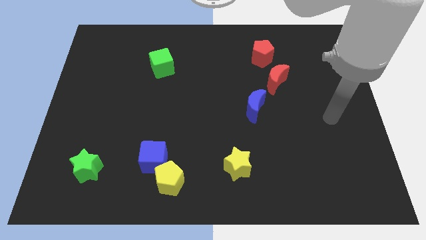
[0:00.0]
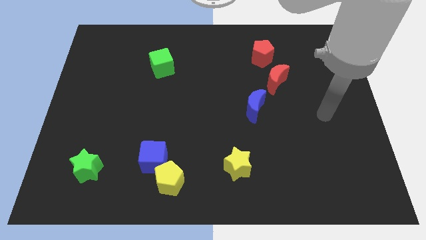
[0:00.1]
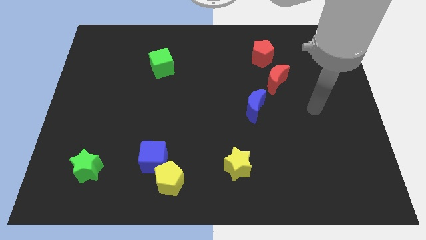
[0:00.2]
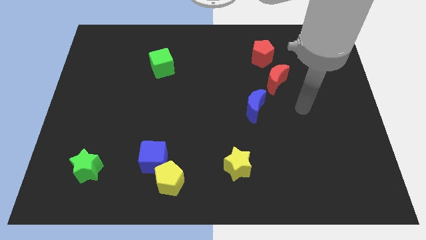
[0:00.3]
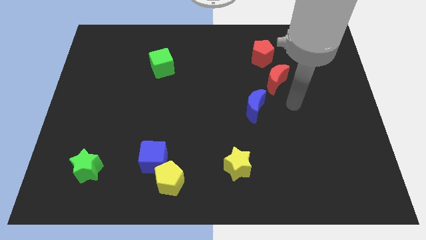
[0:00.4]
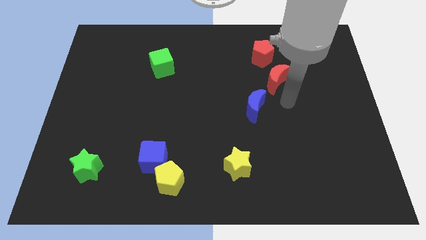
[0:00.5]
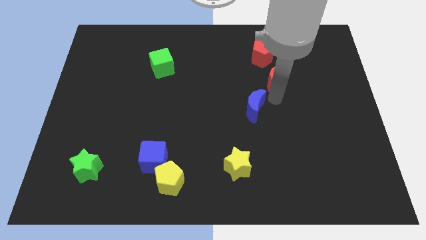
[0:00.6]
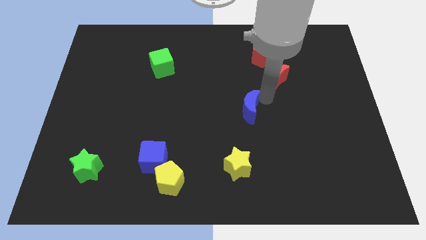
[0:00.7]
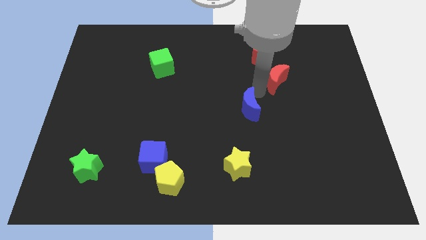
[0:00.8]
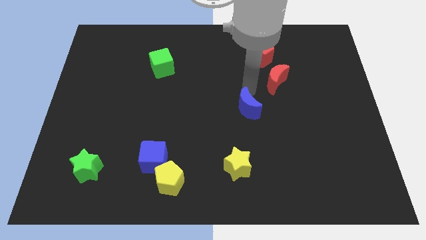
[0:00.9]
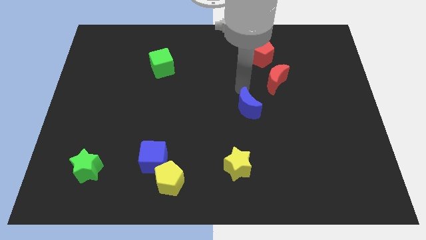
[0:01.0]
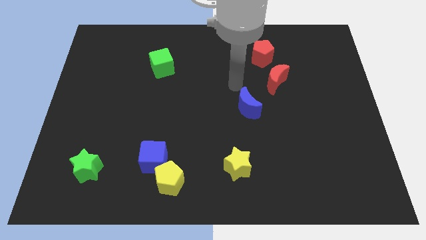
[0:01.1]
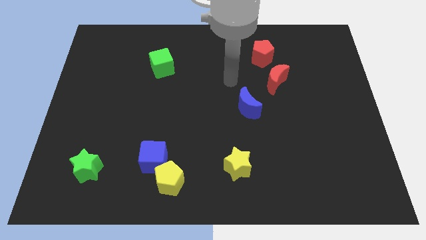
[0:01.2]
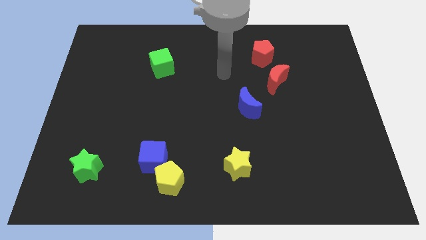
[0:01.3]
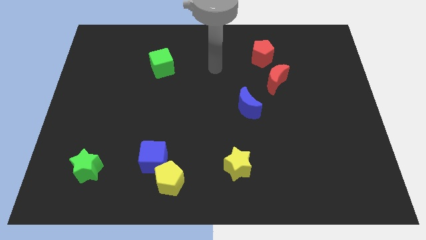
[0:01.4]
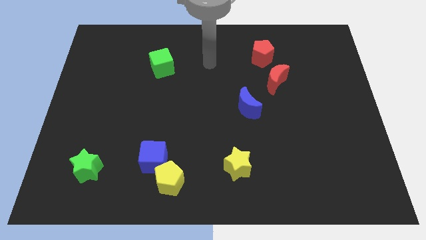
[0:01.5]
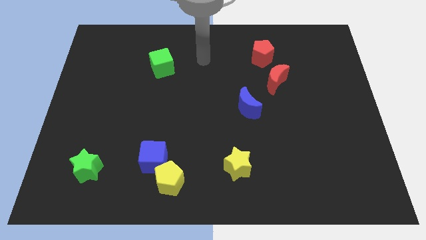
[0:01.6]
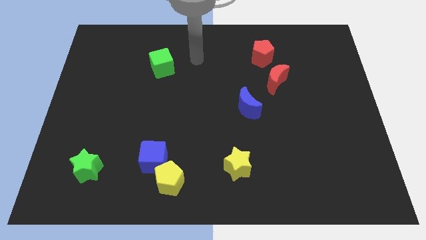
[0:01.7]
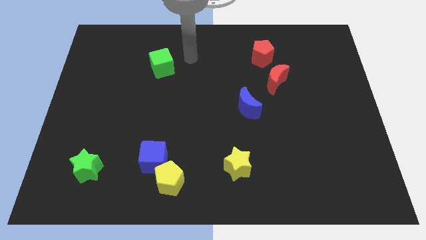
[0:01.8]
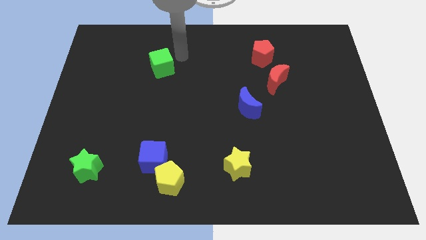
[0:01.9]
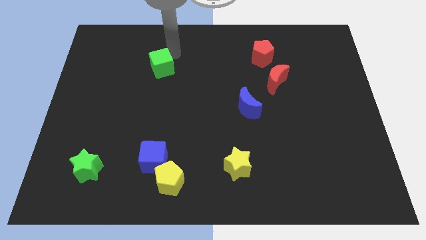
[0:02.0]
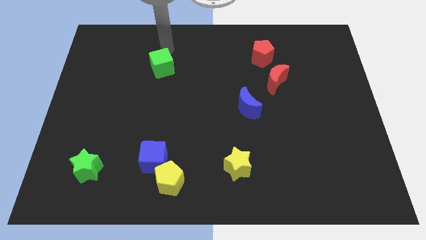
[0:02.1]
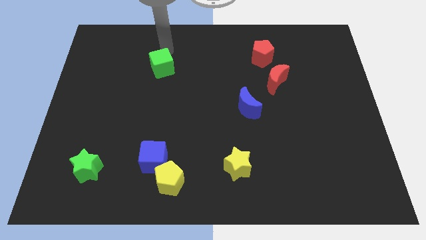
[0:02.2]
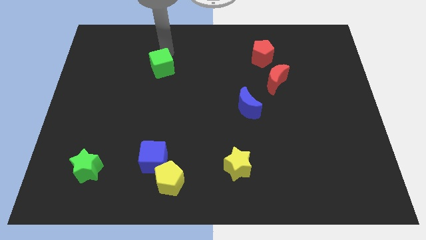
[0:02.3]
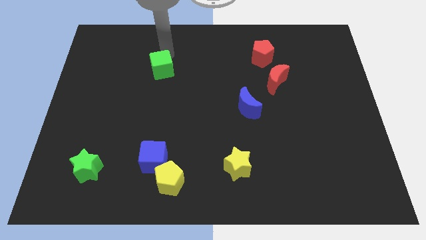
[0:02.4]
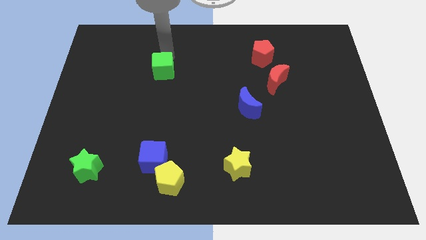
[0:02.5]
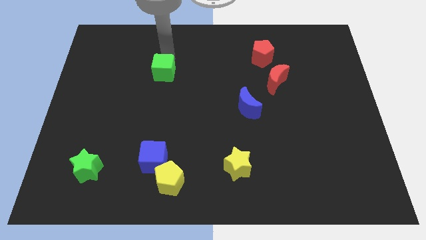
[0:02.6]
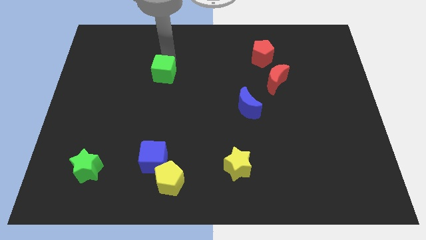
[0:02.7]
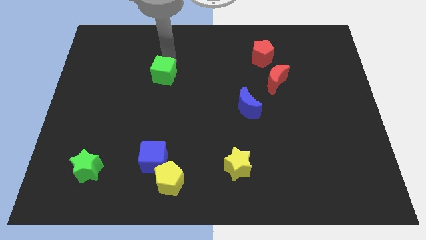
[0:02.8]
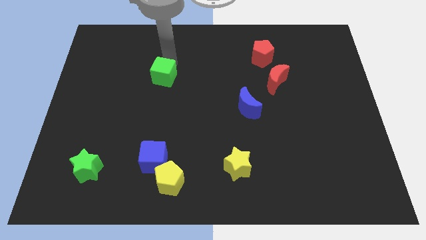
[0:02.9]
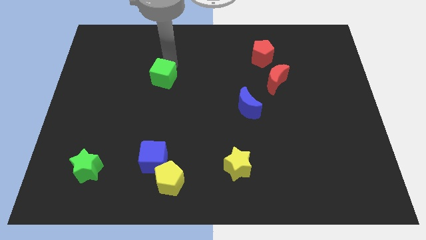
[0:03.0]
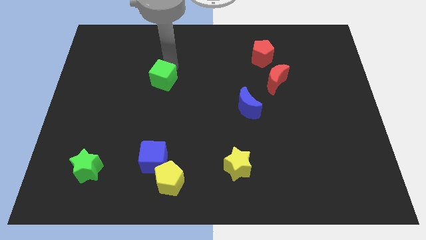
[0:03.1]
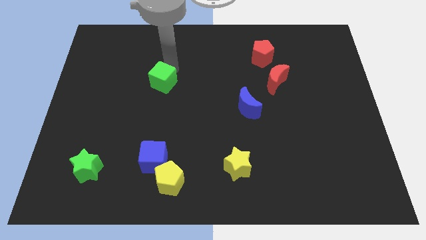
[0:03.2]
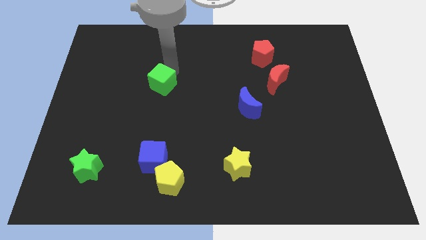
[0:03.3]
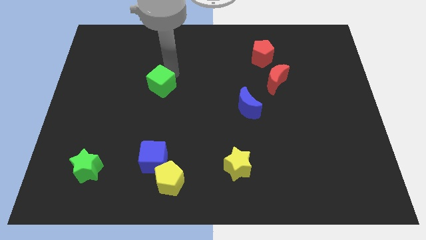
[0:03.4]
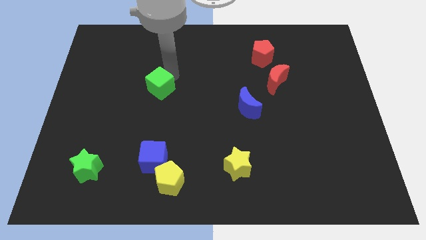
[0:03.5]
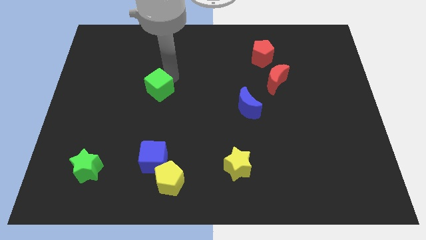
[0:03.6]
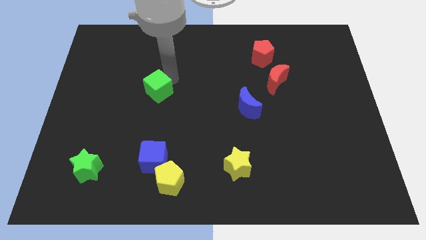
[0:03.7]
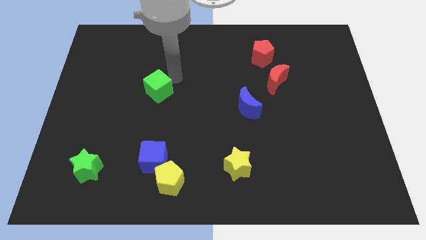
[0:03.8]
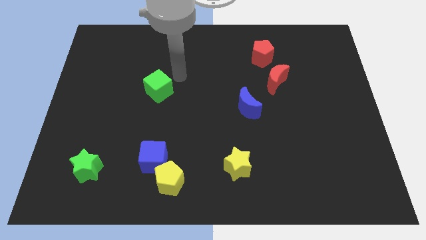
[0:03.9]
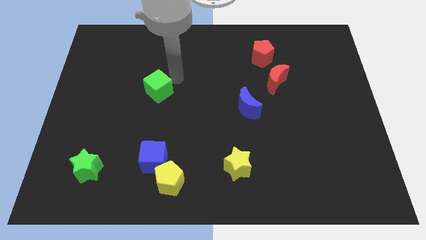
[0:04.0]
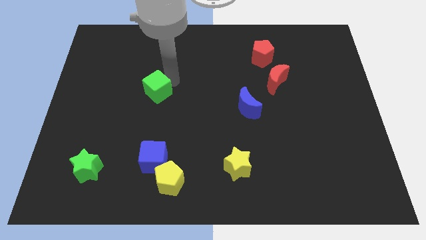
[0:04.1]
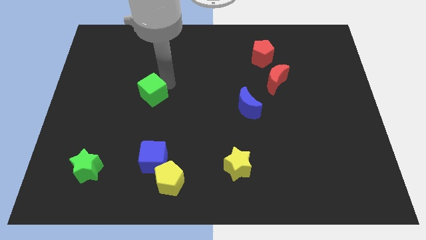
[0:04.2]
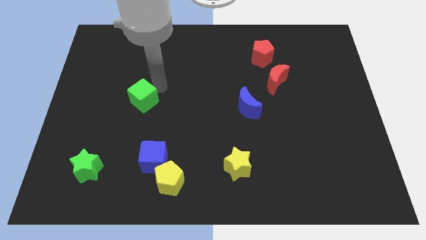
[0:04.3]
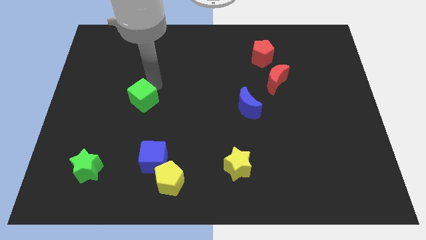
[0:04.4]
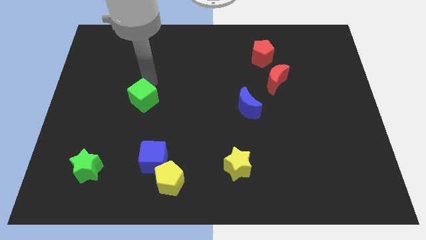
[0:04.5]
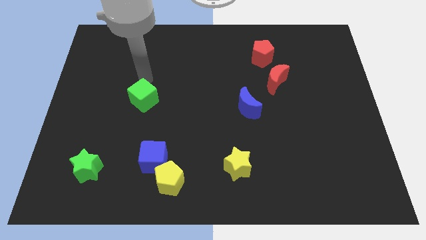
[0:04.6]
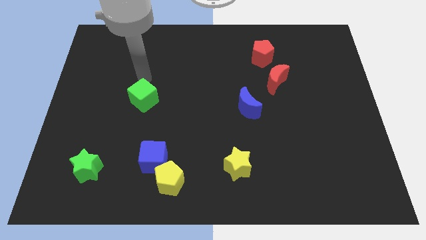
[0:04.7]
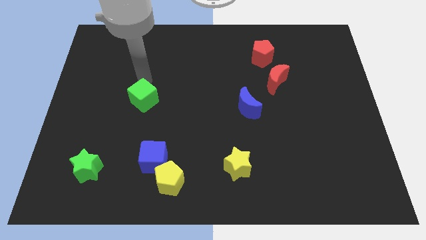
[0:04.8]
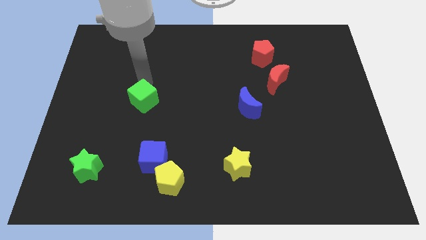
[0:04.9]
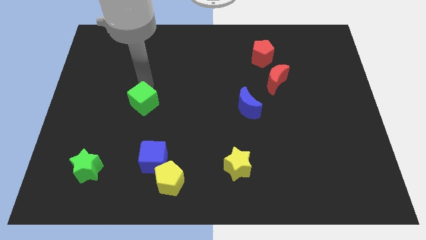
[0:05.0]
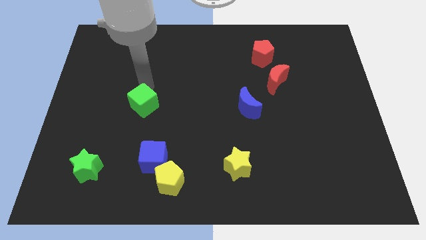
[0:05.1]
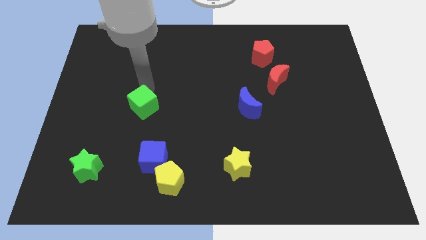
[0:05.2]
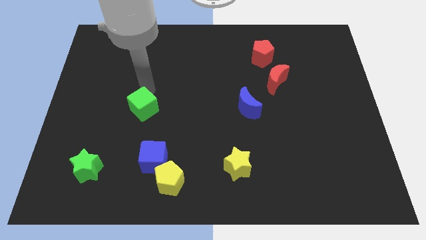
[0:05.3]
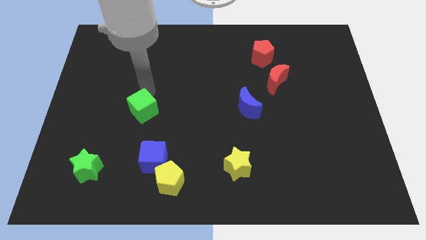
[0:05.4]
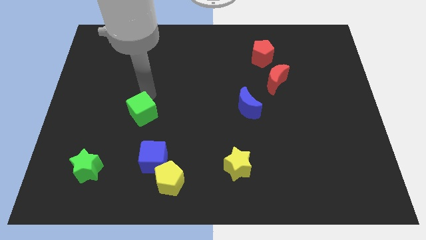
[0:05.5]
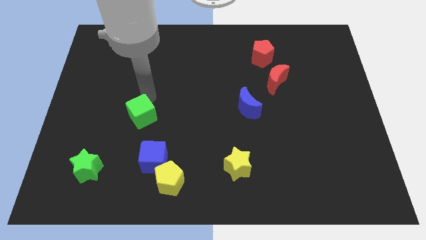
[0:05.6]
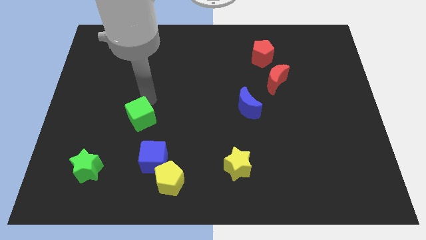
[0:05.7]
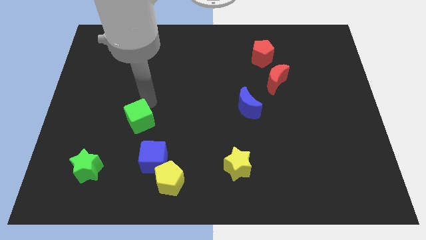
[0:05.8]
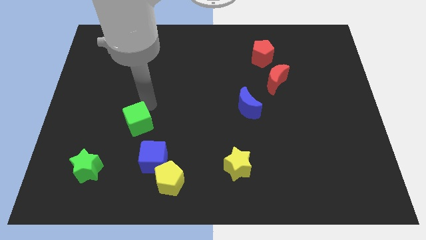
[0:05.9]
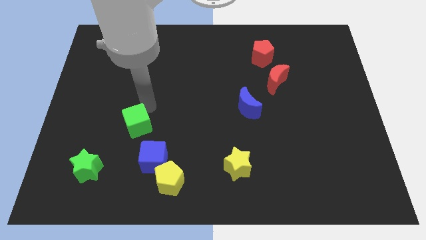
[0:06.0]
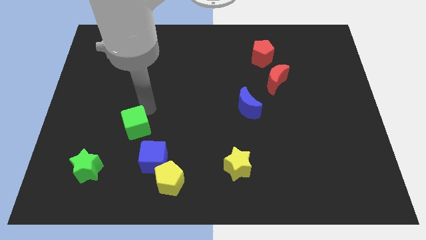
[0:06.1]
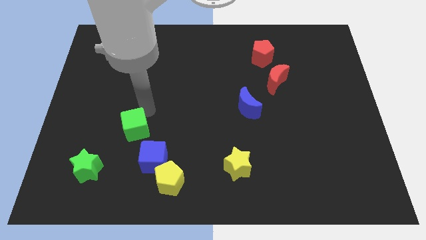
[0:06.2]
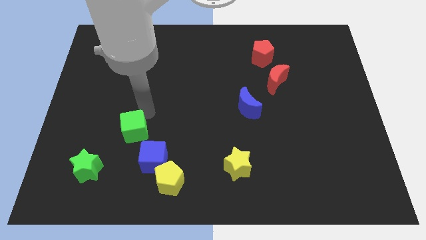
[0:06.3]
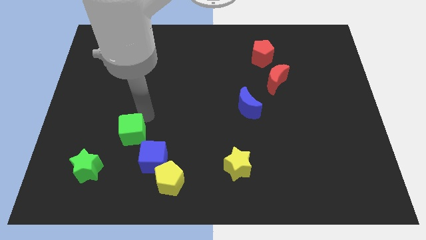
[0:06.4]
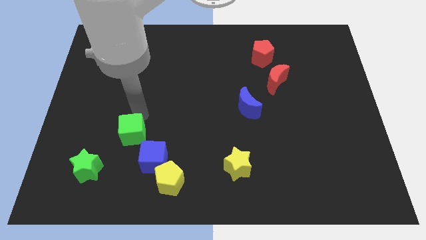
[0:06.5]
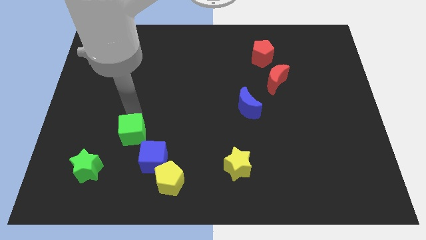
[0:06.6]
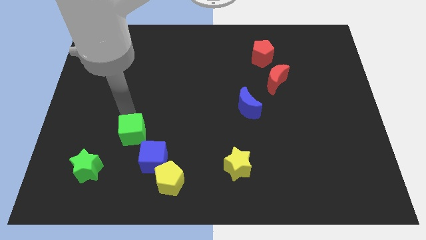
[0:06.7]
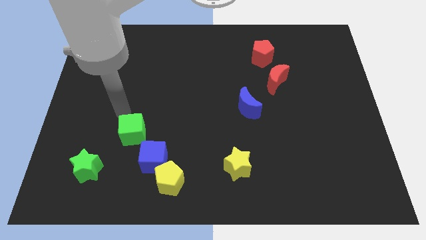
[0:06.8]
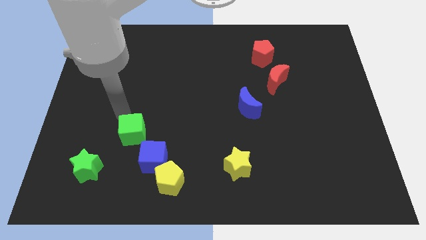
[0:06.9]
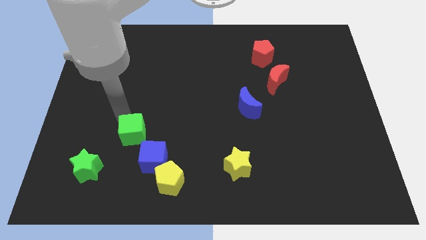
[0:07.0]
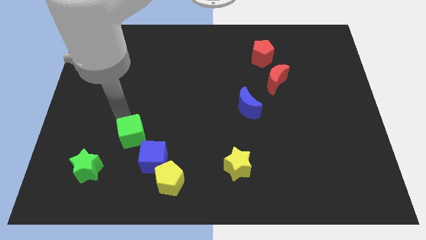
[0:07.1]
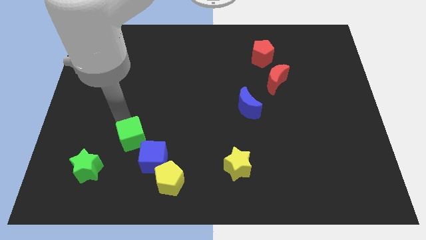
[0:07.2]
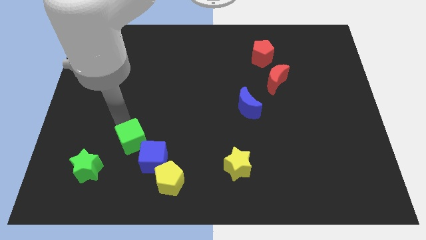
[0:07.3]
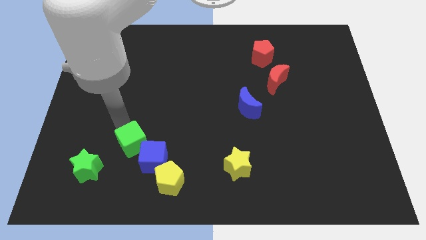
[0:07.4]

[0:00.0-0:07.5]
put the green cube to the top left side of the yellow pentagon
